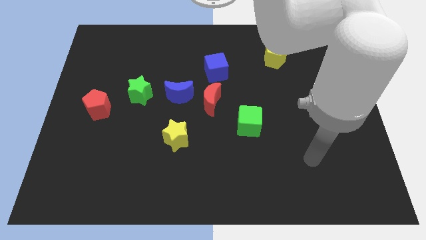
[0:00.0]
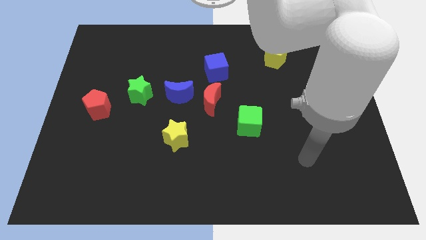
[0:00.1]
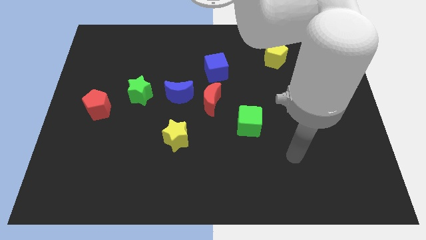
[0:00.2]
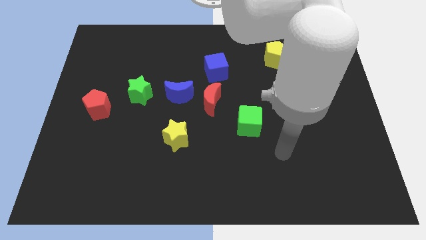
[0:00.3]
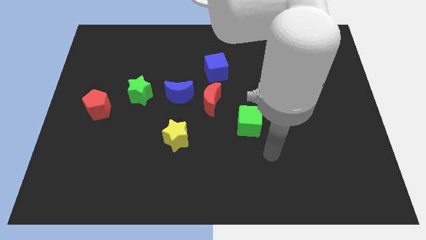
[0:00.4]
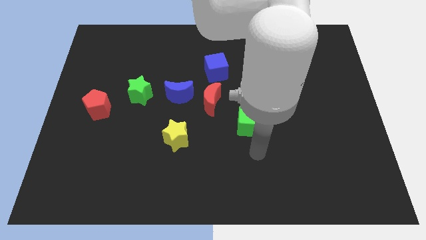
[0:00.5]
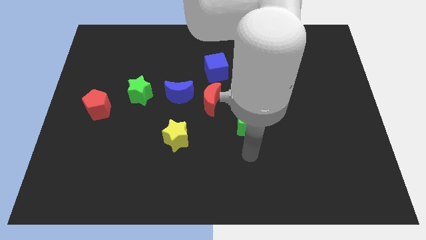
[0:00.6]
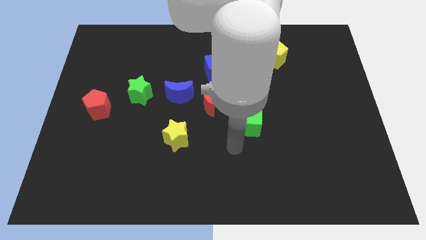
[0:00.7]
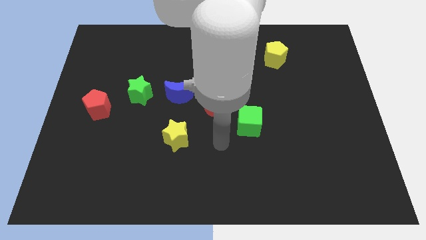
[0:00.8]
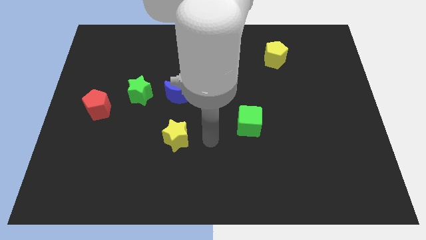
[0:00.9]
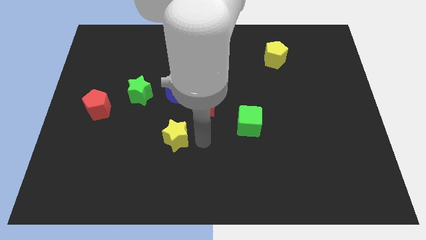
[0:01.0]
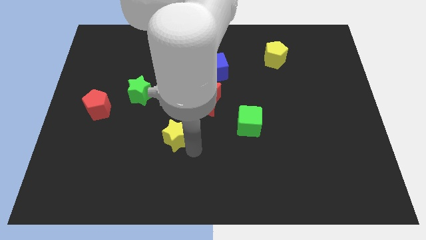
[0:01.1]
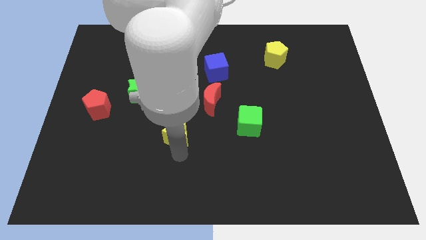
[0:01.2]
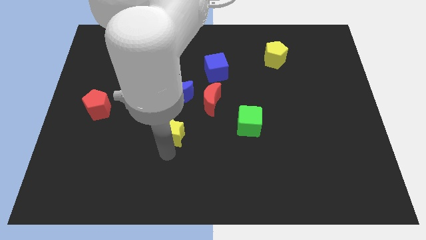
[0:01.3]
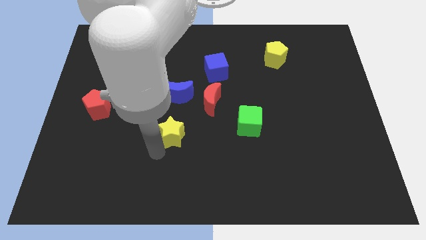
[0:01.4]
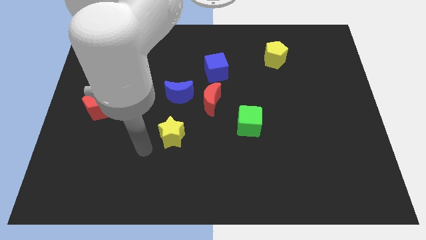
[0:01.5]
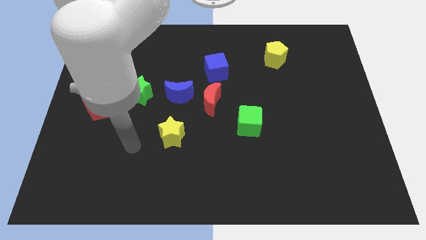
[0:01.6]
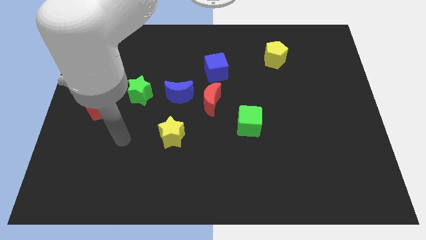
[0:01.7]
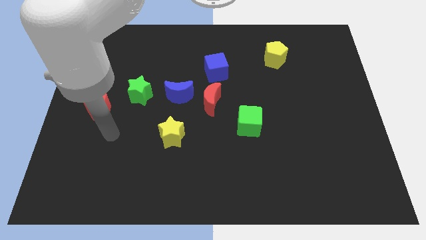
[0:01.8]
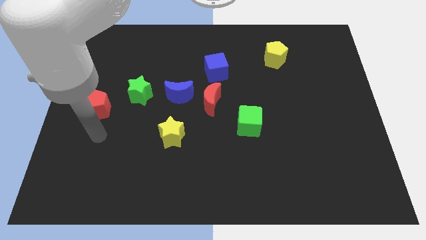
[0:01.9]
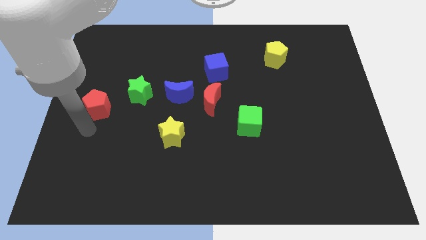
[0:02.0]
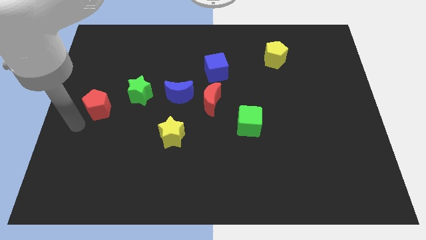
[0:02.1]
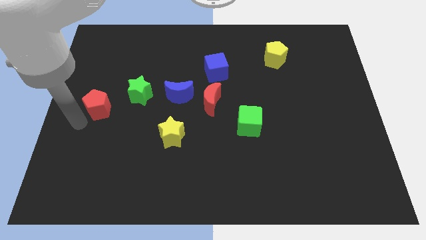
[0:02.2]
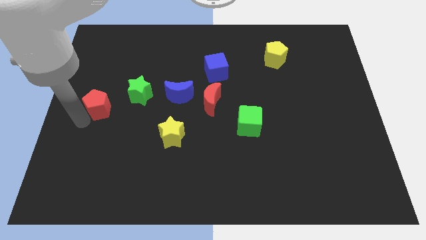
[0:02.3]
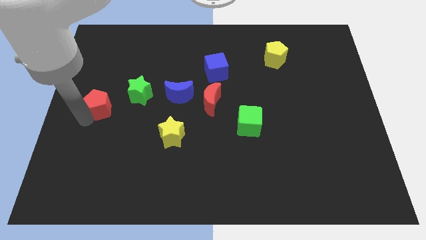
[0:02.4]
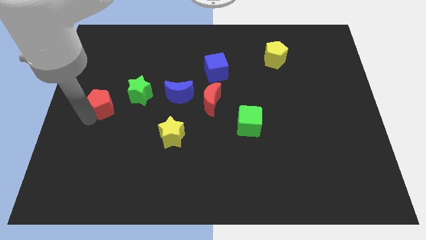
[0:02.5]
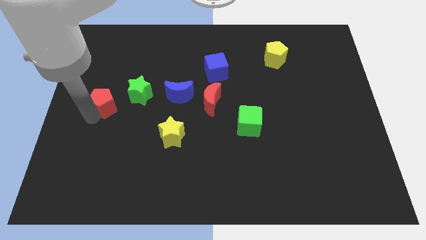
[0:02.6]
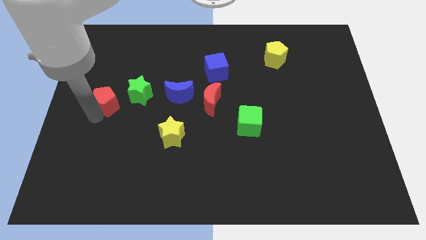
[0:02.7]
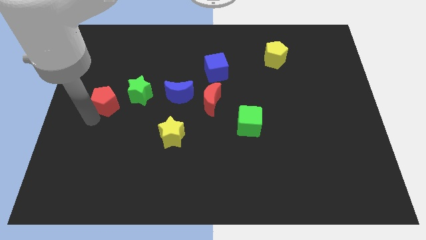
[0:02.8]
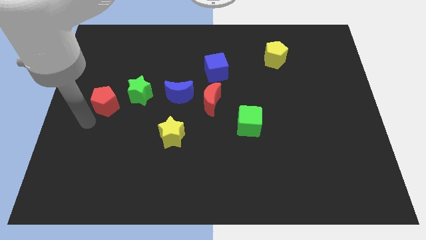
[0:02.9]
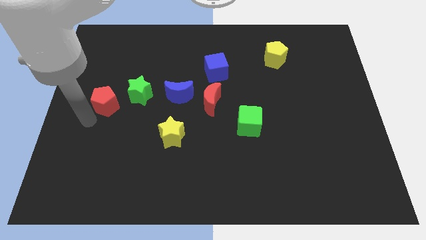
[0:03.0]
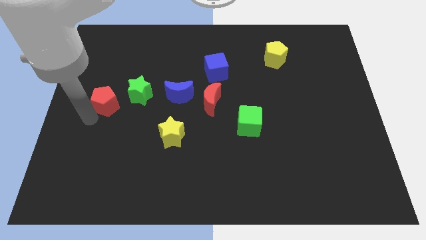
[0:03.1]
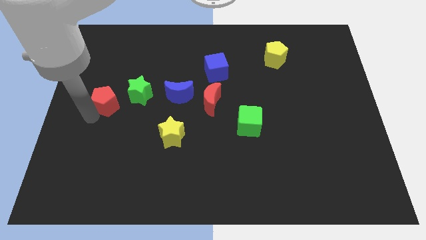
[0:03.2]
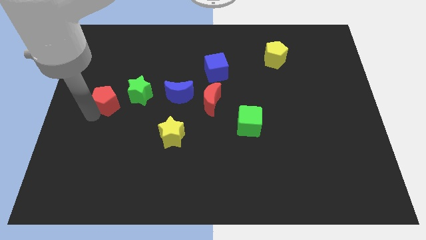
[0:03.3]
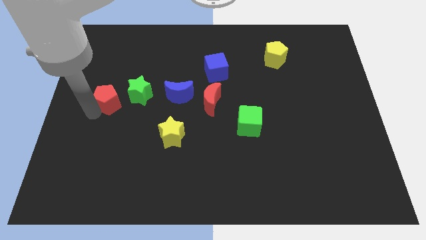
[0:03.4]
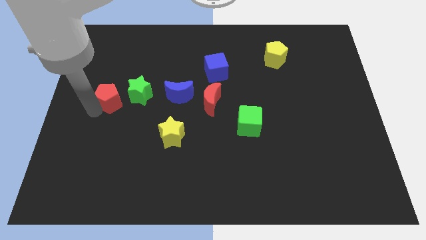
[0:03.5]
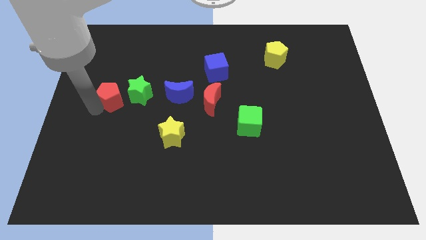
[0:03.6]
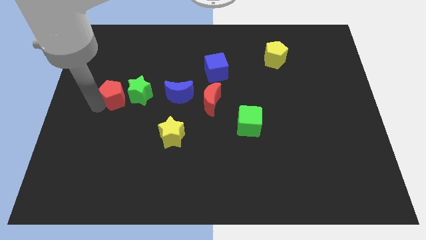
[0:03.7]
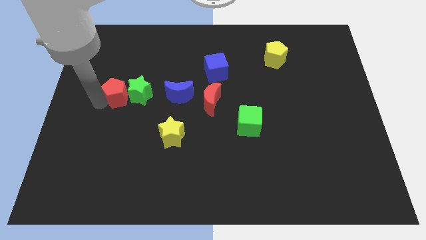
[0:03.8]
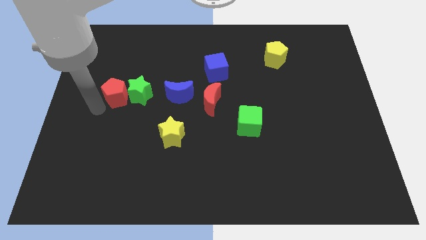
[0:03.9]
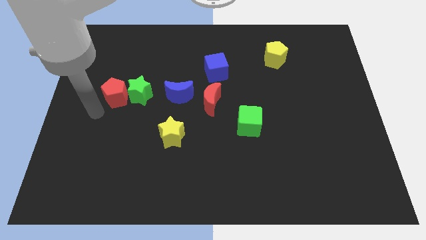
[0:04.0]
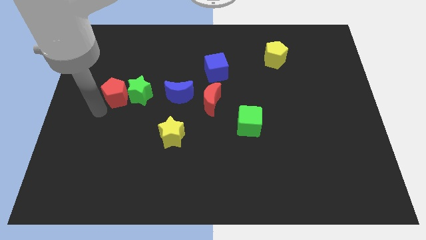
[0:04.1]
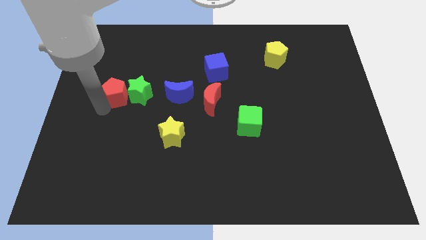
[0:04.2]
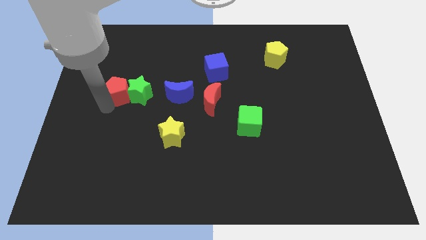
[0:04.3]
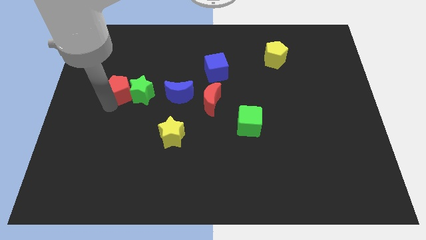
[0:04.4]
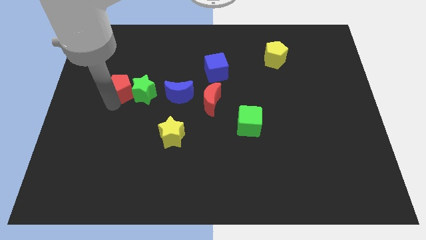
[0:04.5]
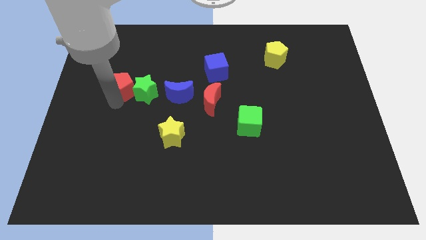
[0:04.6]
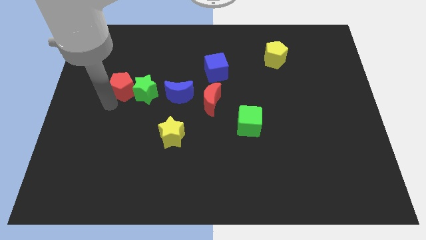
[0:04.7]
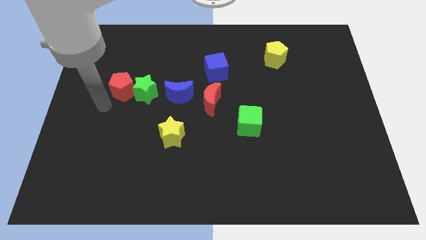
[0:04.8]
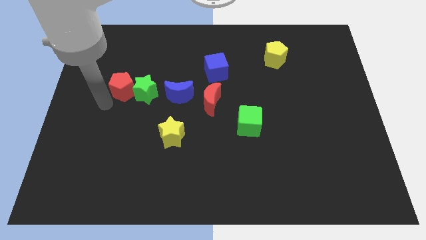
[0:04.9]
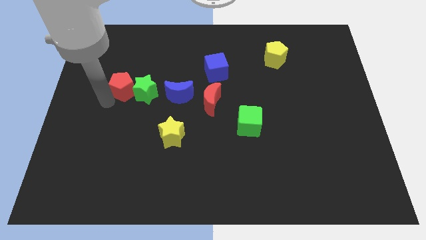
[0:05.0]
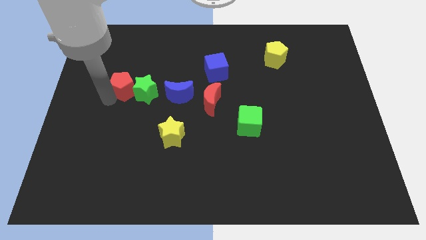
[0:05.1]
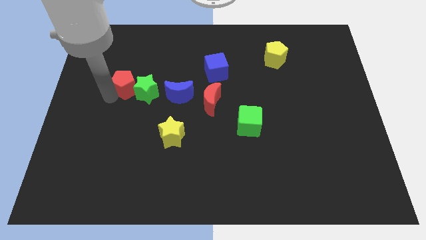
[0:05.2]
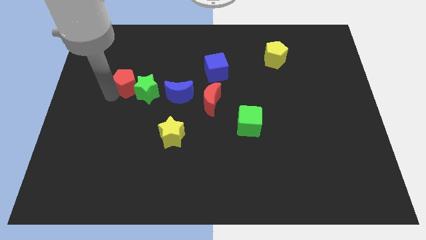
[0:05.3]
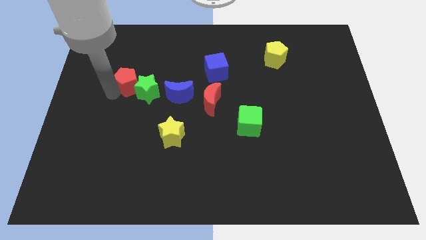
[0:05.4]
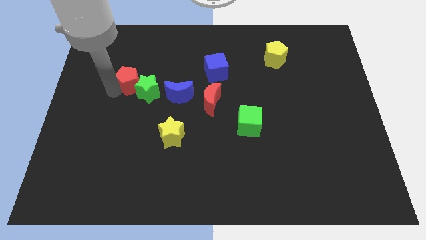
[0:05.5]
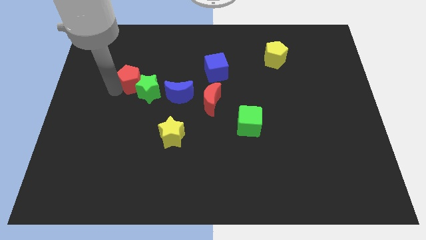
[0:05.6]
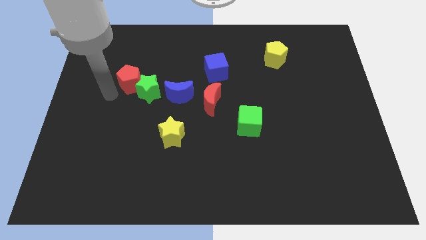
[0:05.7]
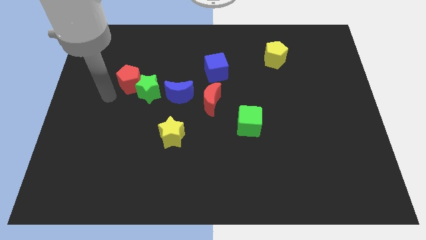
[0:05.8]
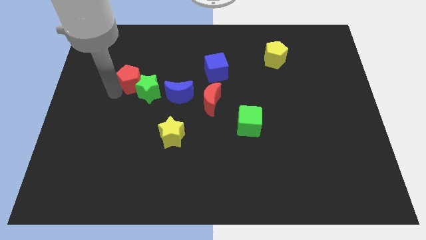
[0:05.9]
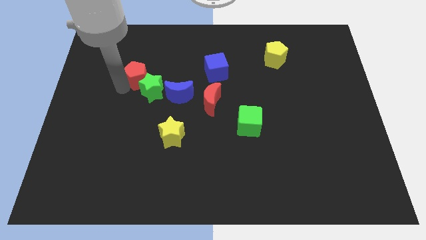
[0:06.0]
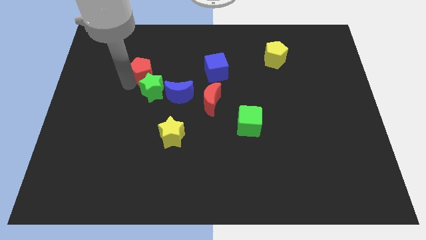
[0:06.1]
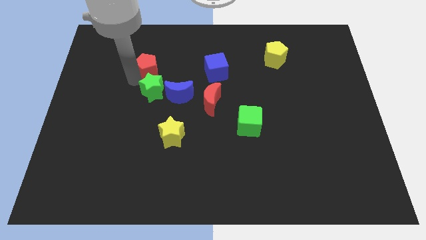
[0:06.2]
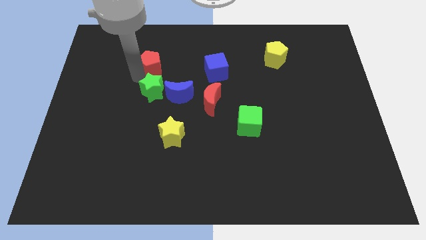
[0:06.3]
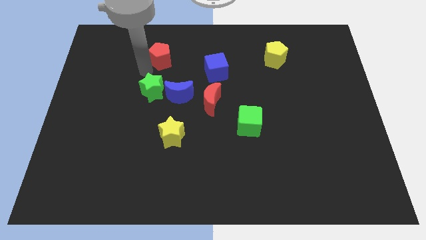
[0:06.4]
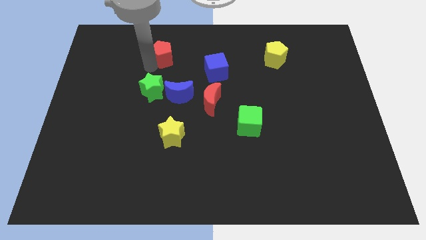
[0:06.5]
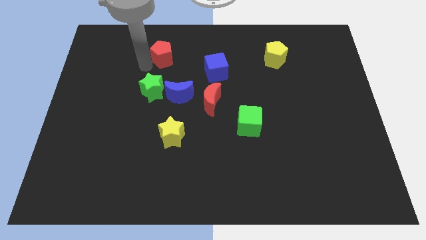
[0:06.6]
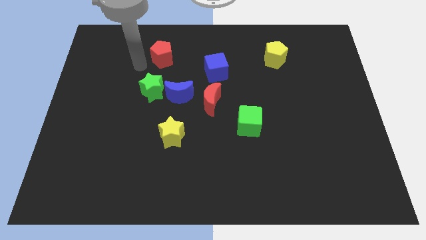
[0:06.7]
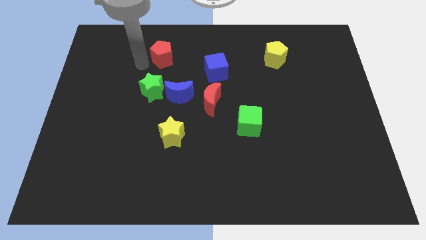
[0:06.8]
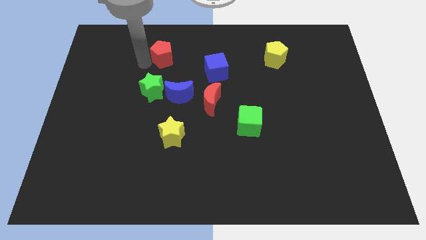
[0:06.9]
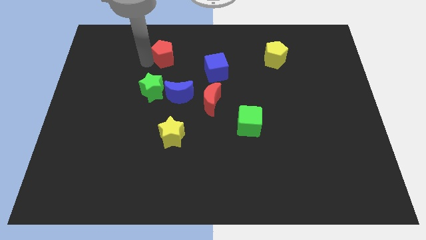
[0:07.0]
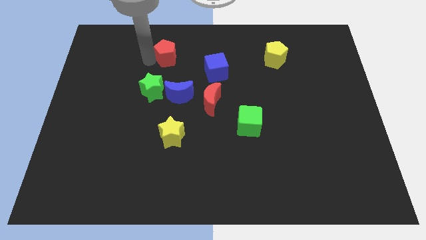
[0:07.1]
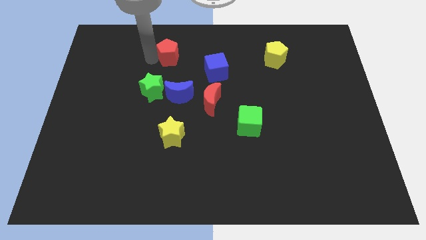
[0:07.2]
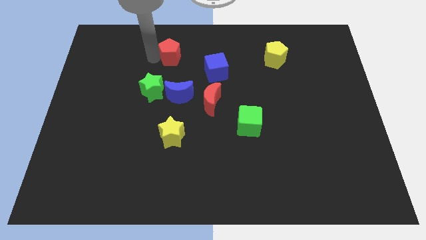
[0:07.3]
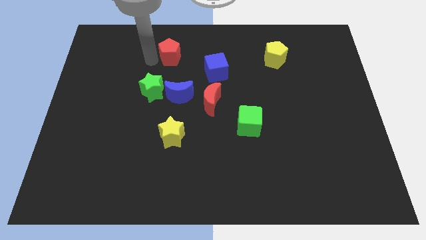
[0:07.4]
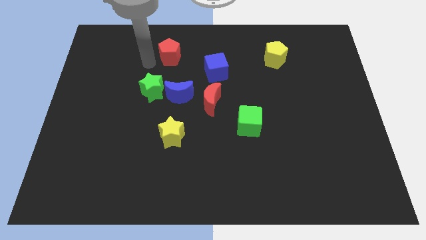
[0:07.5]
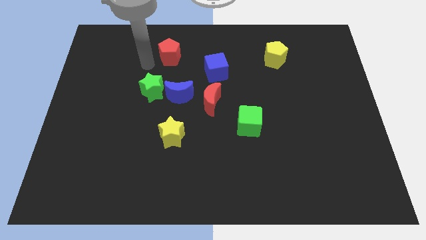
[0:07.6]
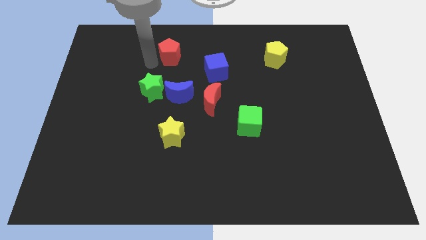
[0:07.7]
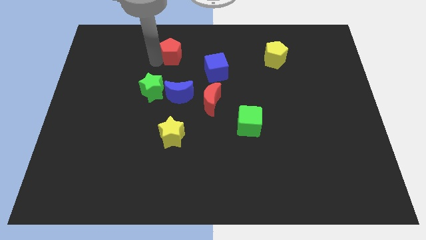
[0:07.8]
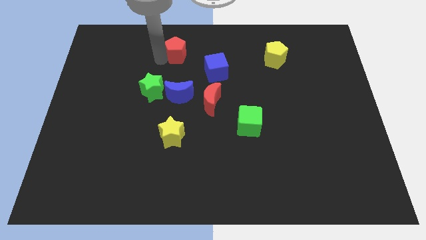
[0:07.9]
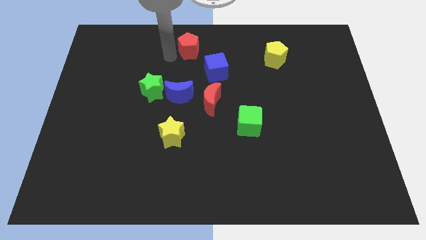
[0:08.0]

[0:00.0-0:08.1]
move the red pentagon to the top
